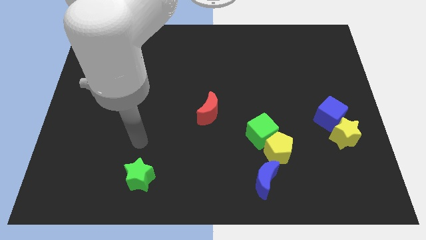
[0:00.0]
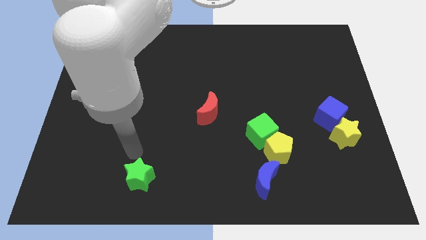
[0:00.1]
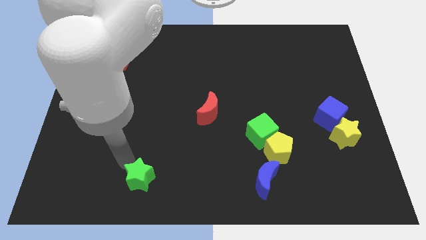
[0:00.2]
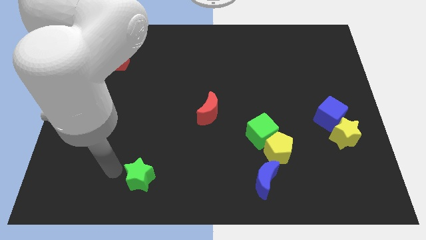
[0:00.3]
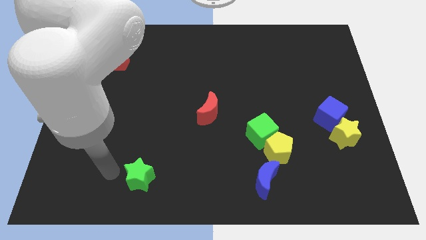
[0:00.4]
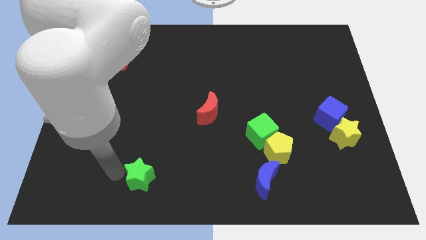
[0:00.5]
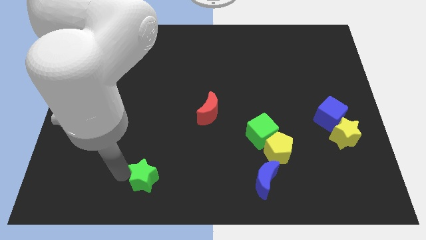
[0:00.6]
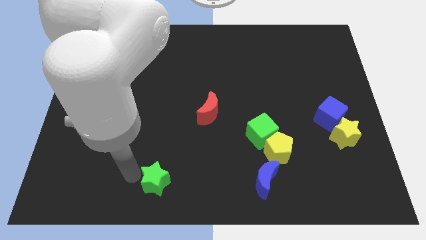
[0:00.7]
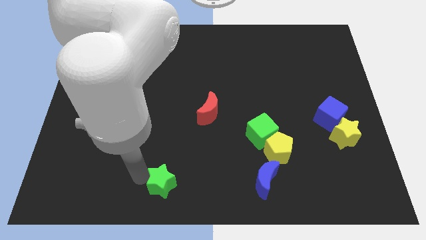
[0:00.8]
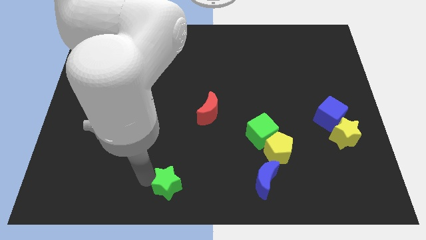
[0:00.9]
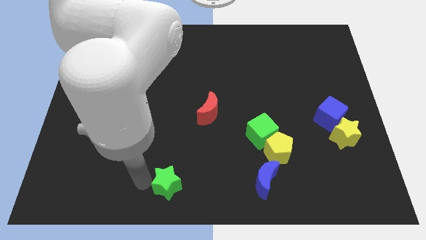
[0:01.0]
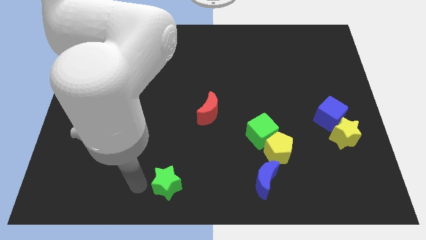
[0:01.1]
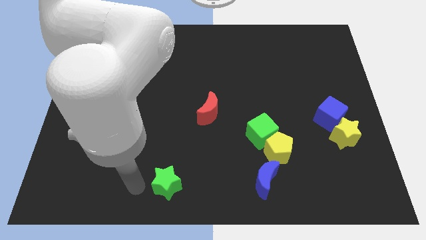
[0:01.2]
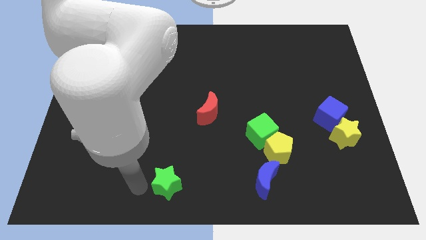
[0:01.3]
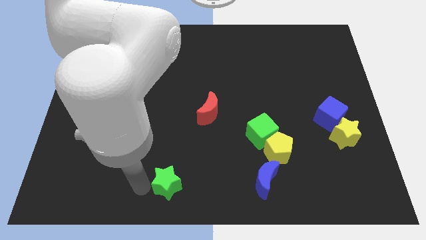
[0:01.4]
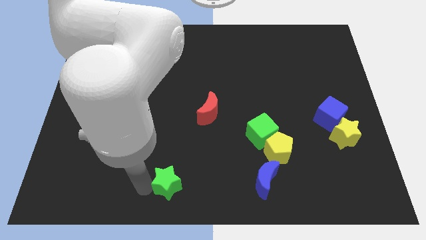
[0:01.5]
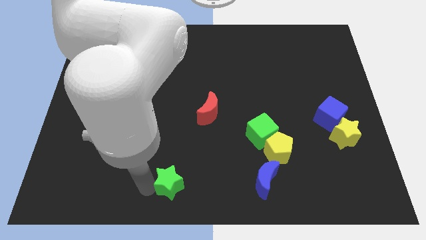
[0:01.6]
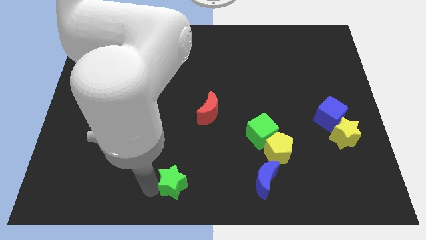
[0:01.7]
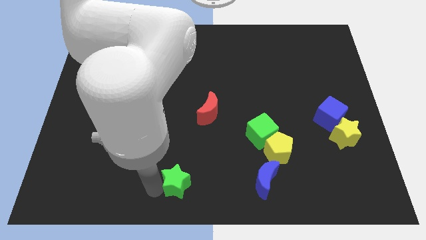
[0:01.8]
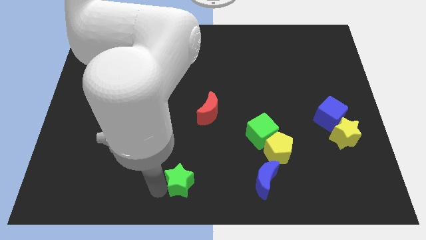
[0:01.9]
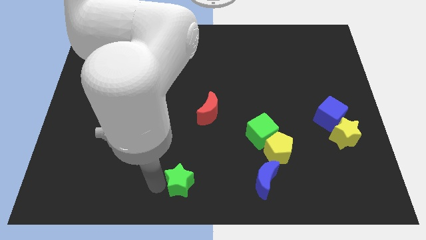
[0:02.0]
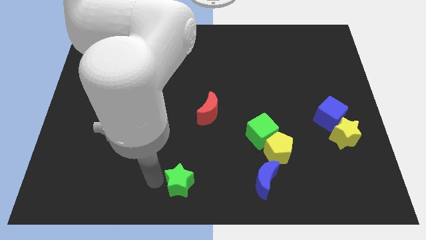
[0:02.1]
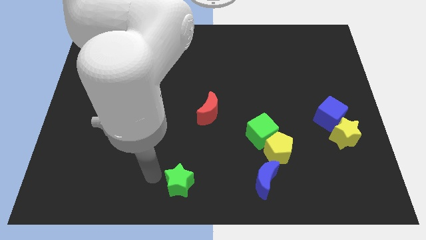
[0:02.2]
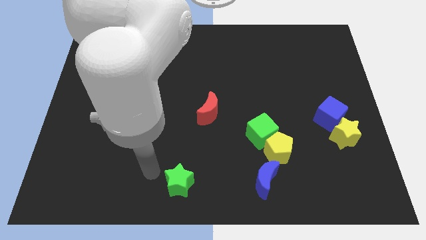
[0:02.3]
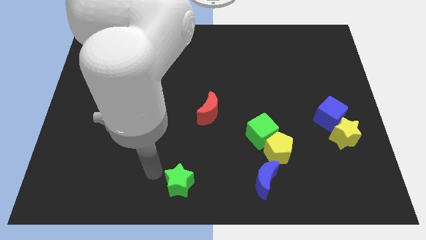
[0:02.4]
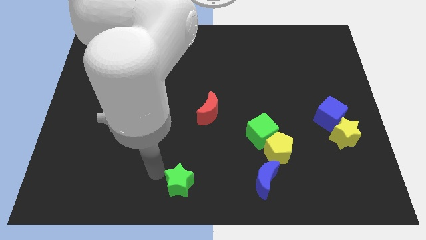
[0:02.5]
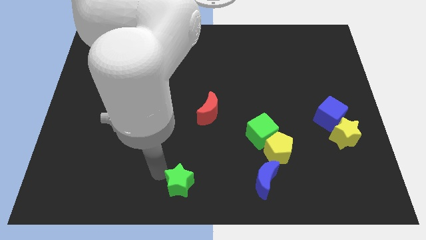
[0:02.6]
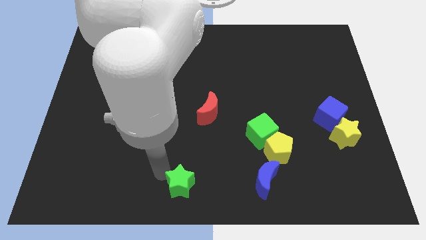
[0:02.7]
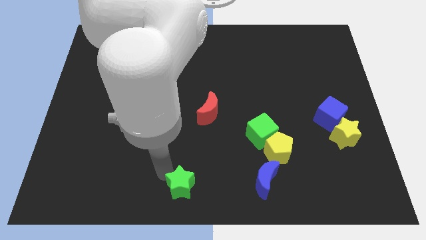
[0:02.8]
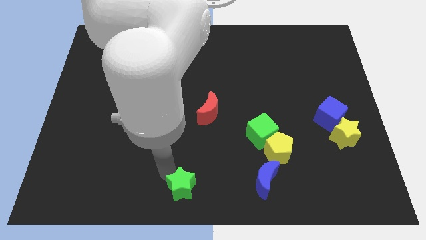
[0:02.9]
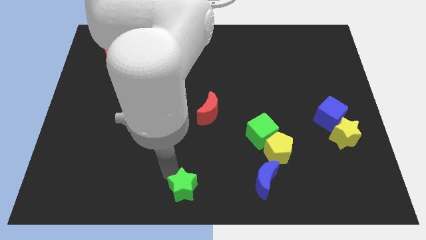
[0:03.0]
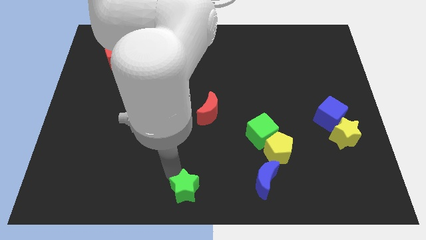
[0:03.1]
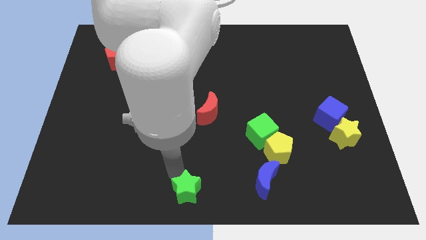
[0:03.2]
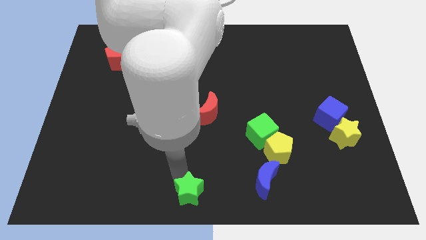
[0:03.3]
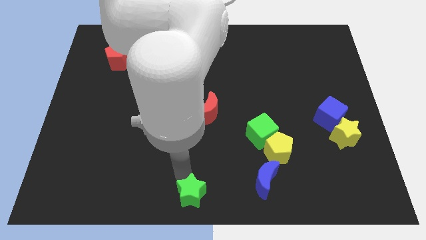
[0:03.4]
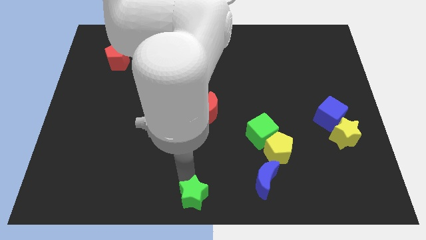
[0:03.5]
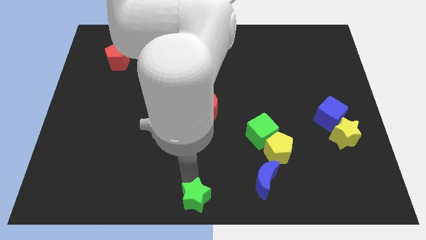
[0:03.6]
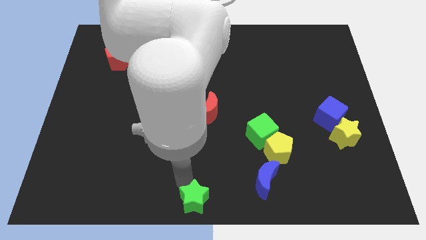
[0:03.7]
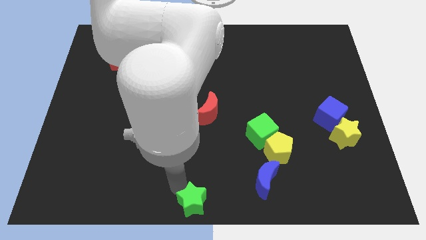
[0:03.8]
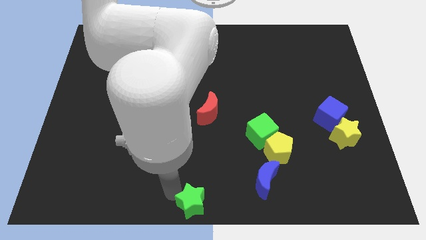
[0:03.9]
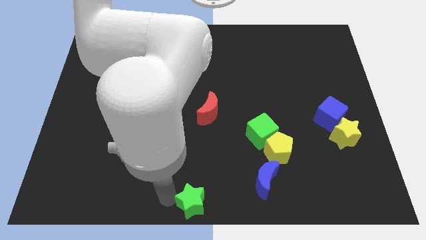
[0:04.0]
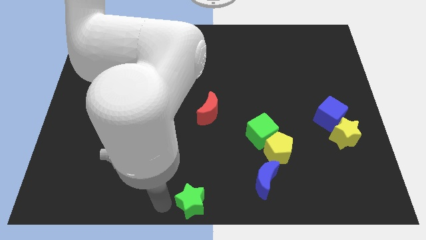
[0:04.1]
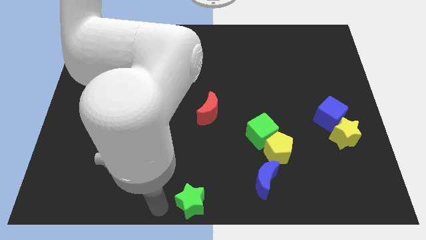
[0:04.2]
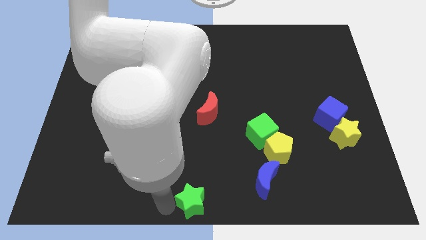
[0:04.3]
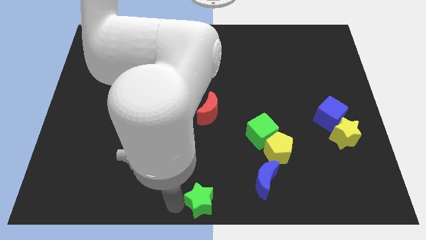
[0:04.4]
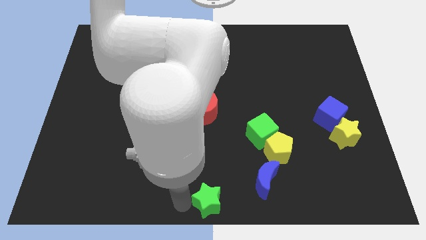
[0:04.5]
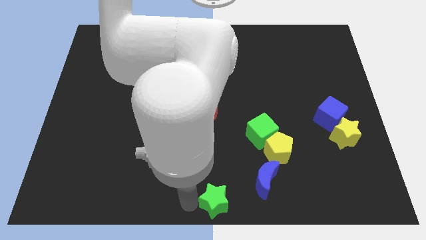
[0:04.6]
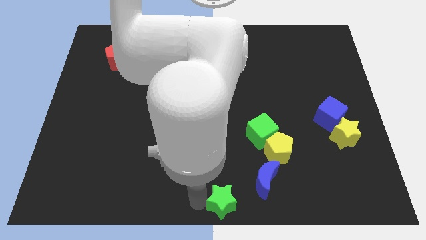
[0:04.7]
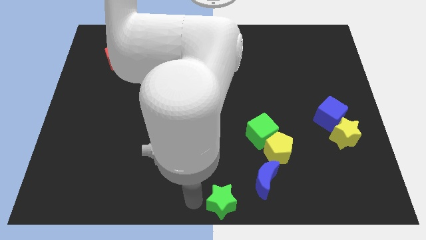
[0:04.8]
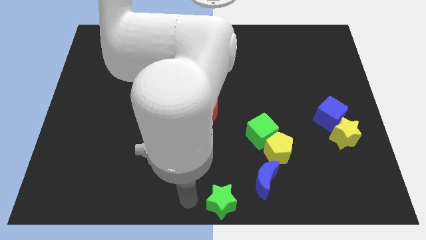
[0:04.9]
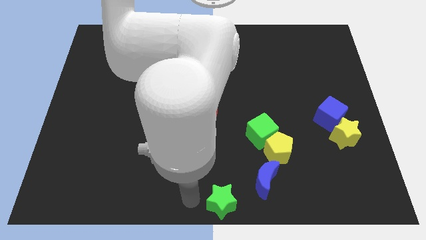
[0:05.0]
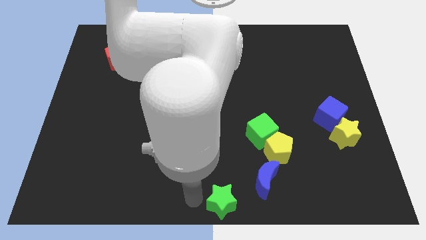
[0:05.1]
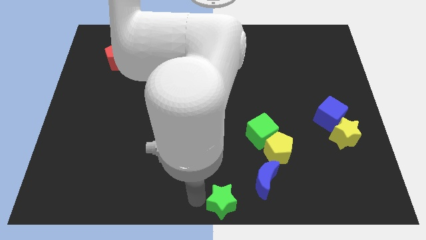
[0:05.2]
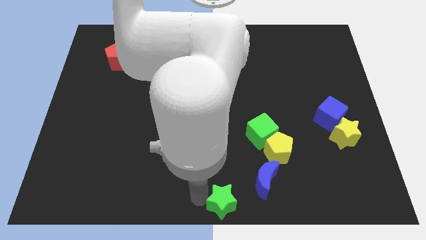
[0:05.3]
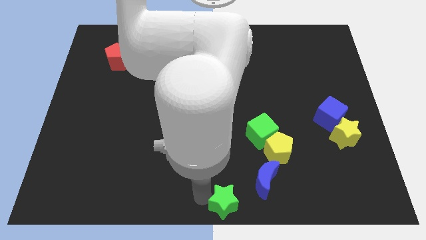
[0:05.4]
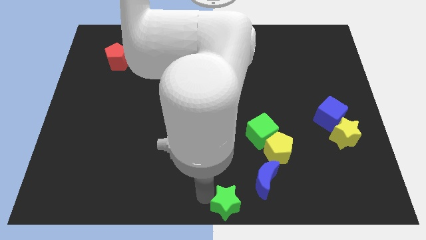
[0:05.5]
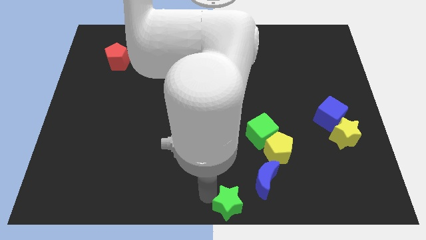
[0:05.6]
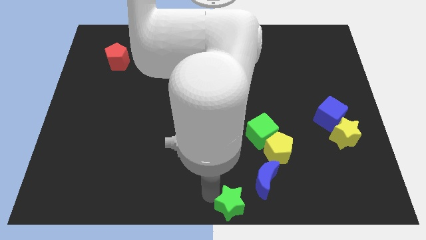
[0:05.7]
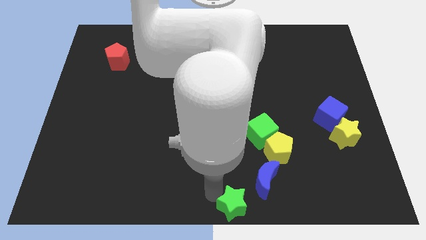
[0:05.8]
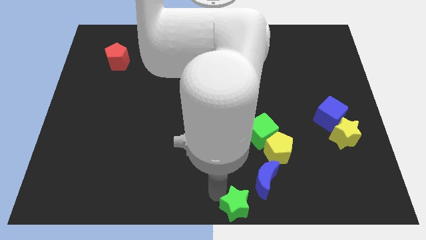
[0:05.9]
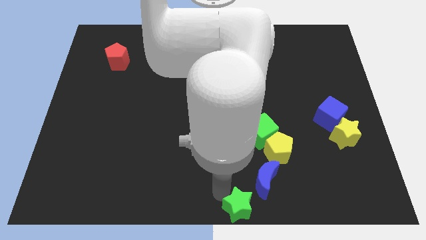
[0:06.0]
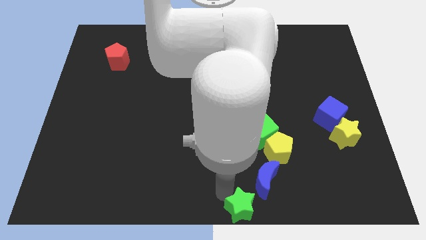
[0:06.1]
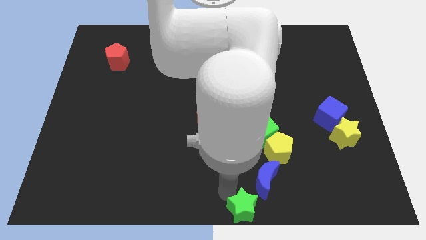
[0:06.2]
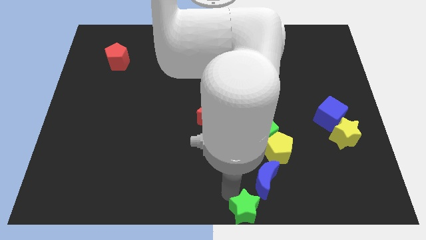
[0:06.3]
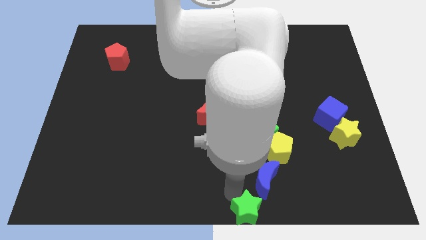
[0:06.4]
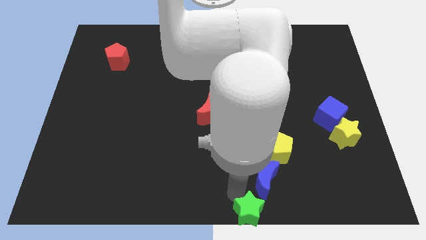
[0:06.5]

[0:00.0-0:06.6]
slide the green star right

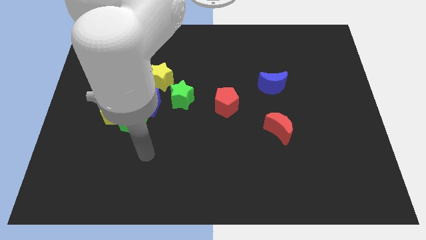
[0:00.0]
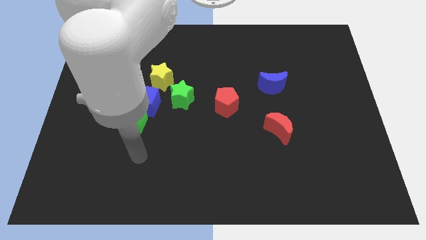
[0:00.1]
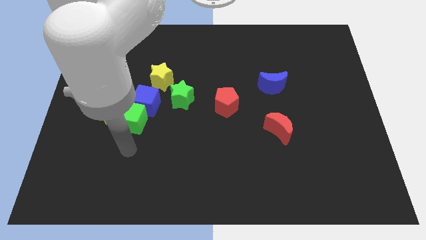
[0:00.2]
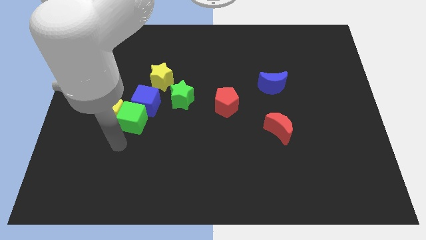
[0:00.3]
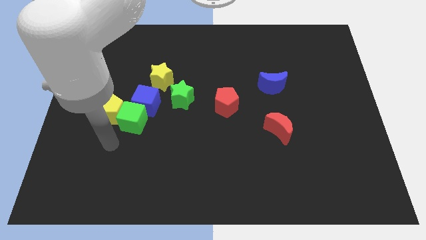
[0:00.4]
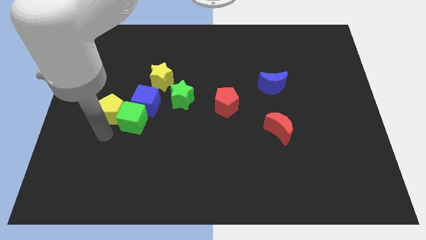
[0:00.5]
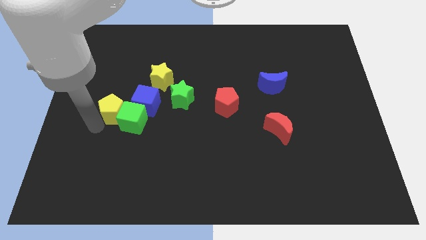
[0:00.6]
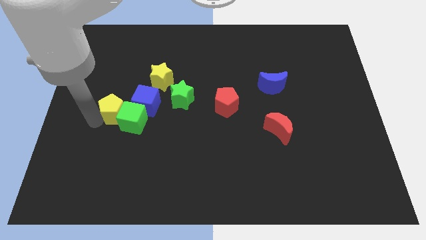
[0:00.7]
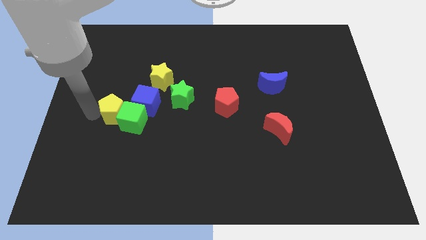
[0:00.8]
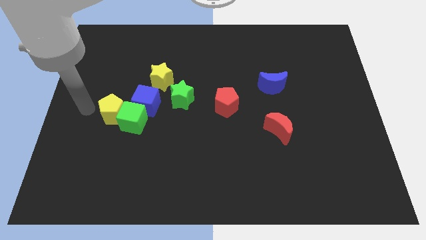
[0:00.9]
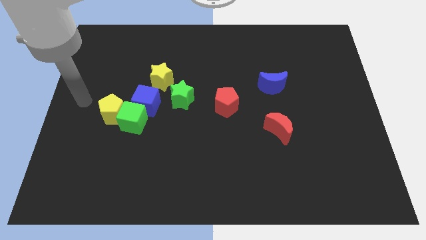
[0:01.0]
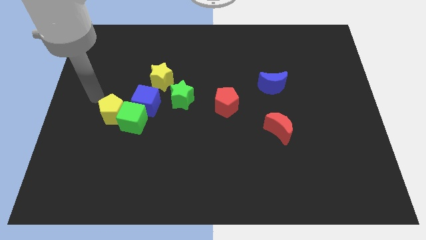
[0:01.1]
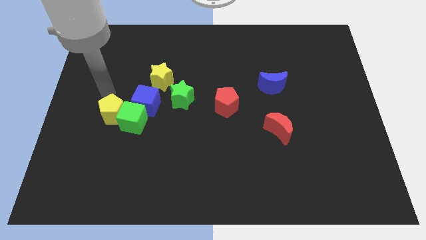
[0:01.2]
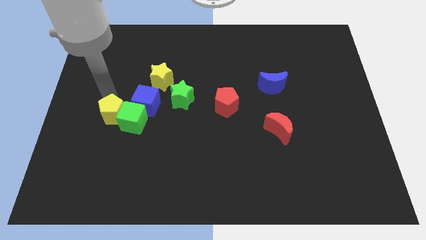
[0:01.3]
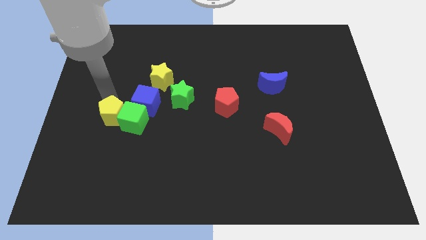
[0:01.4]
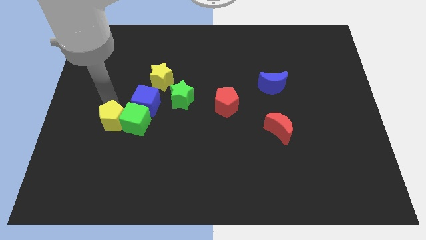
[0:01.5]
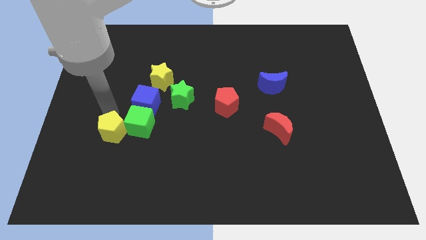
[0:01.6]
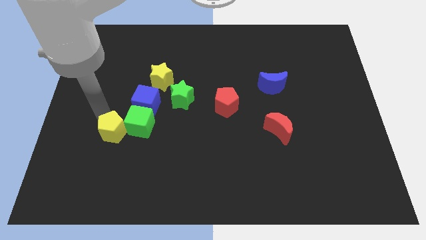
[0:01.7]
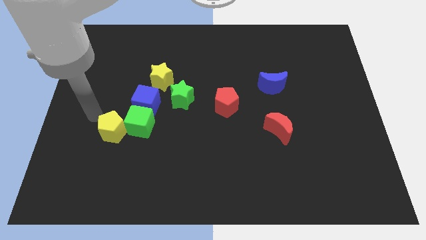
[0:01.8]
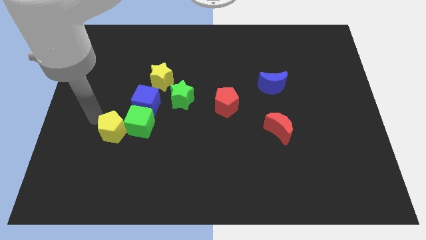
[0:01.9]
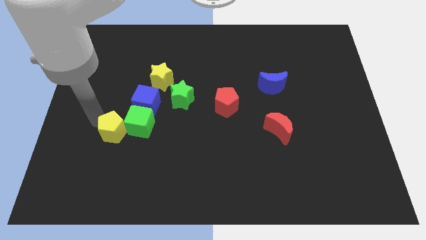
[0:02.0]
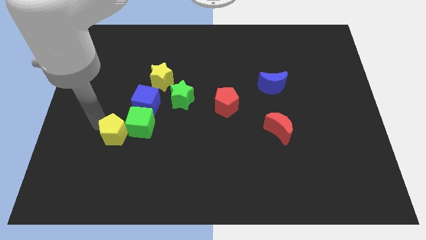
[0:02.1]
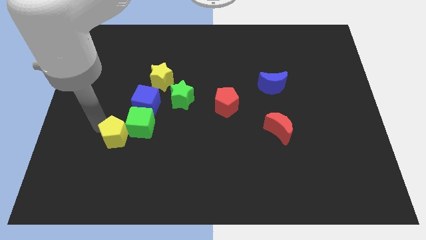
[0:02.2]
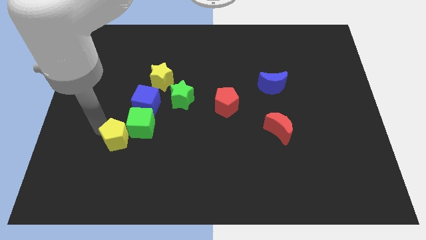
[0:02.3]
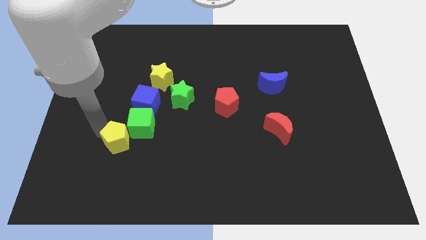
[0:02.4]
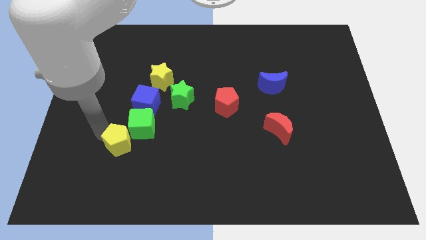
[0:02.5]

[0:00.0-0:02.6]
slide the yellow pentagon a little down and to the right diagonally
